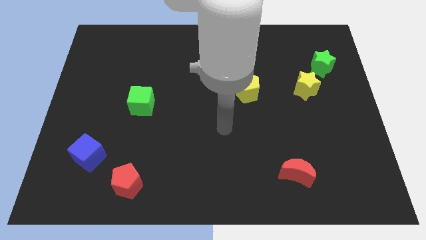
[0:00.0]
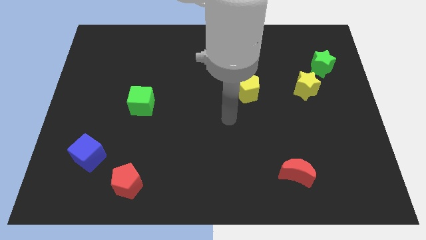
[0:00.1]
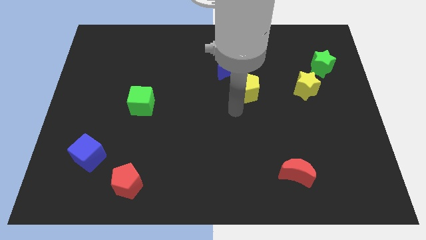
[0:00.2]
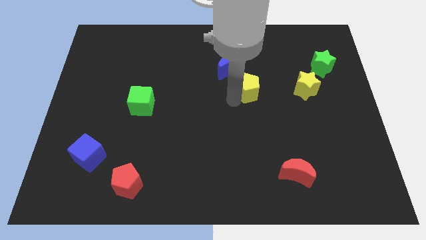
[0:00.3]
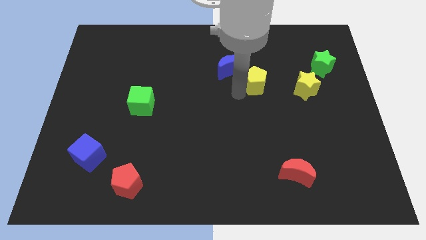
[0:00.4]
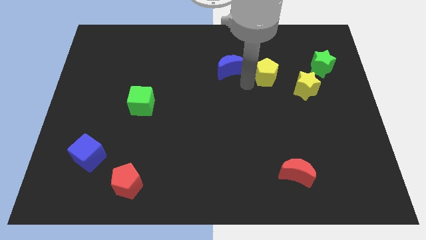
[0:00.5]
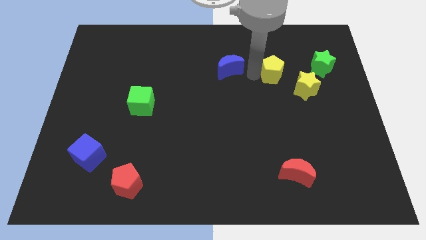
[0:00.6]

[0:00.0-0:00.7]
separate the blue moon from the yellow pentagon

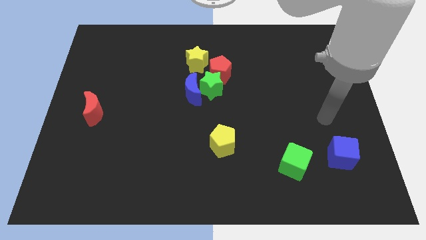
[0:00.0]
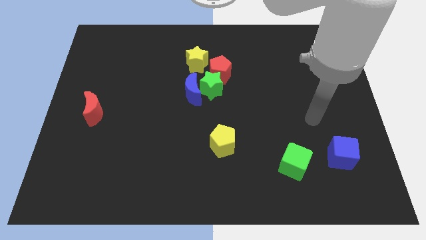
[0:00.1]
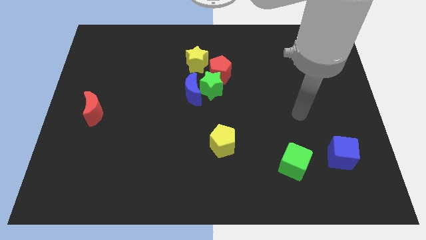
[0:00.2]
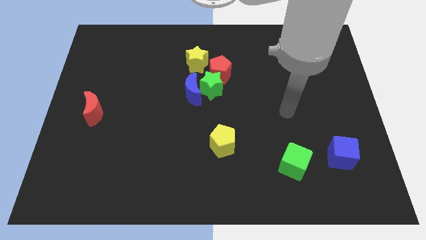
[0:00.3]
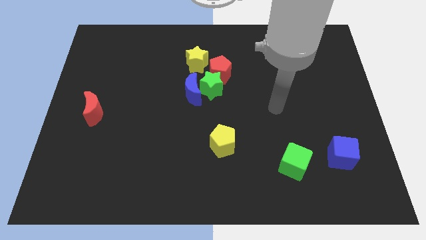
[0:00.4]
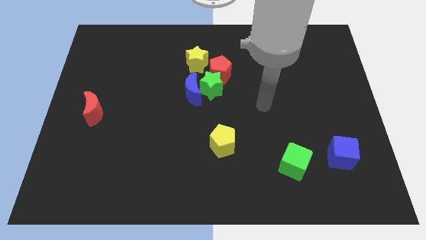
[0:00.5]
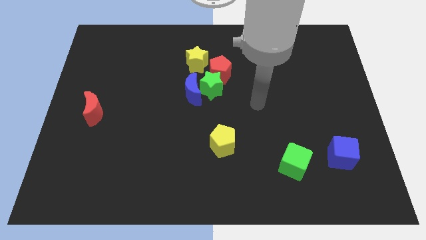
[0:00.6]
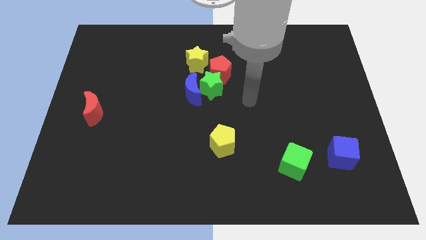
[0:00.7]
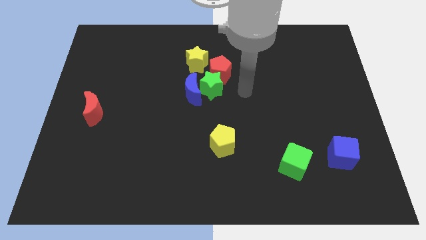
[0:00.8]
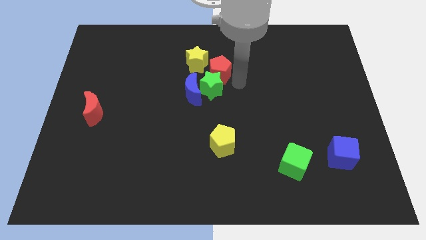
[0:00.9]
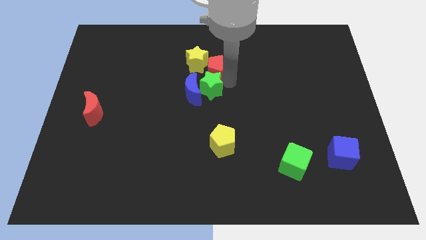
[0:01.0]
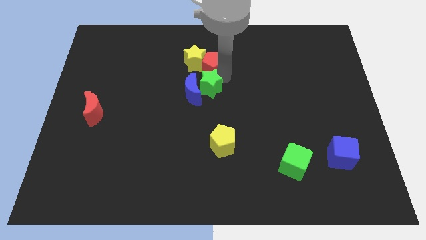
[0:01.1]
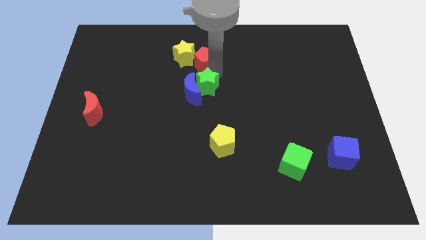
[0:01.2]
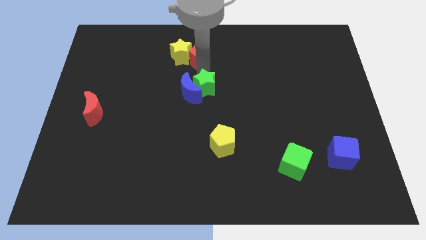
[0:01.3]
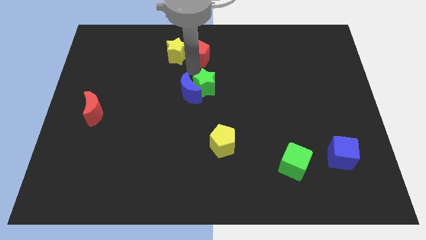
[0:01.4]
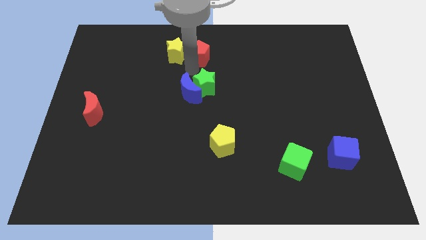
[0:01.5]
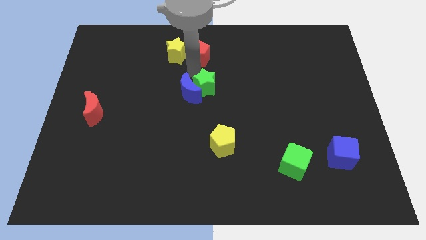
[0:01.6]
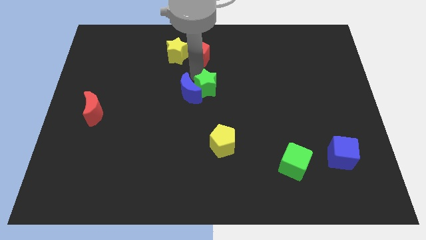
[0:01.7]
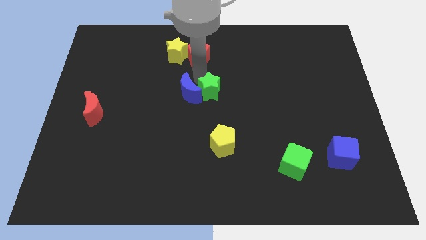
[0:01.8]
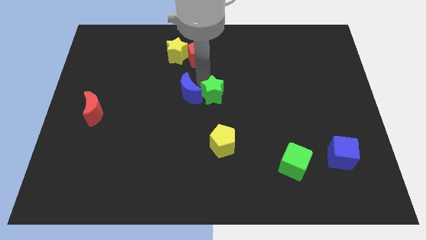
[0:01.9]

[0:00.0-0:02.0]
separate the green star from the clump

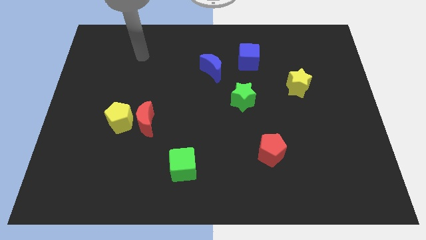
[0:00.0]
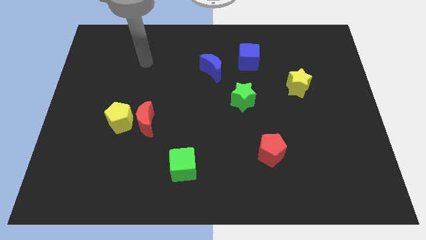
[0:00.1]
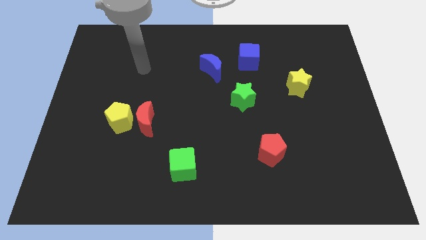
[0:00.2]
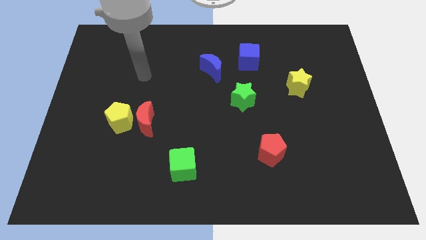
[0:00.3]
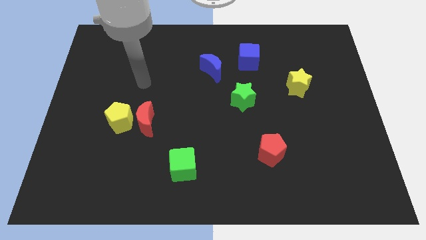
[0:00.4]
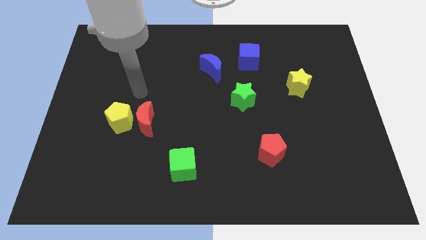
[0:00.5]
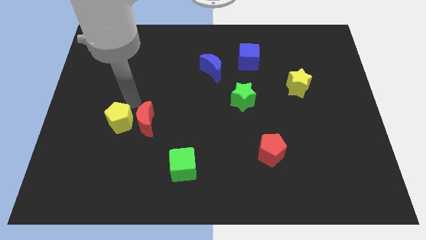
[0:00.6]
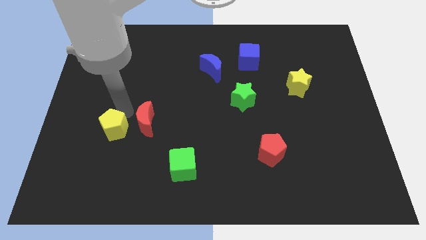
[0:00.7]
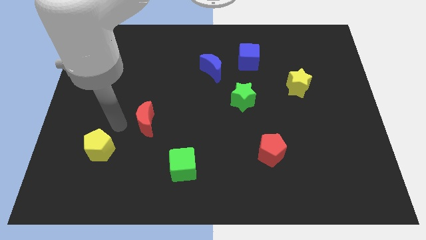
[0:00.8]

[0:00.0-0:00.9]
separate the red moon from the yellow pentagon

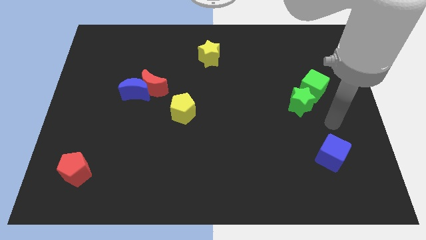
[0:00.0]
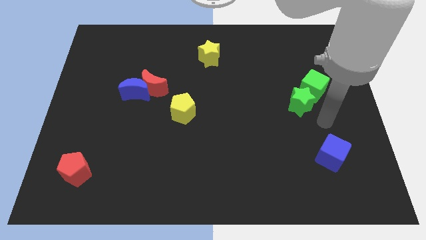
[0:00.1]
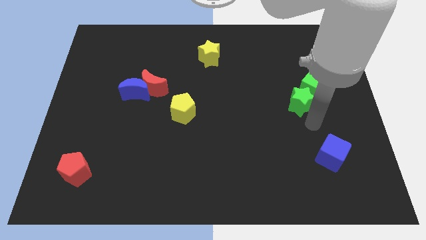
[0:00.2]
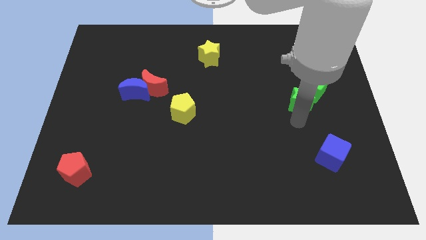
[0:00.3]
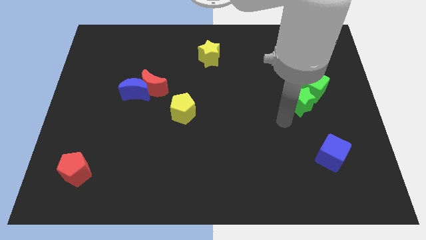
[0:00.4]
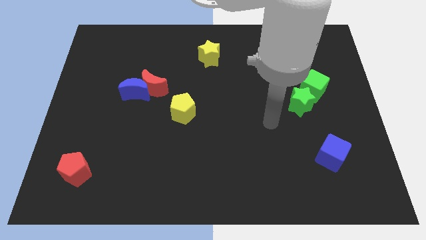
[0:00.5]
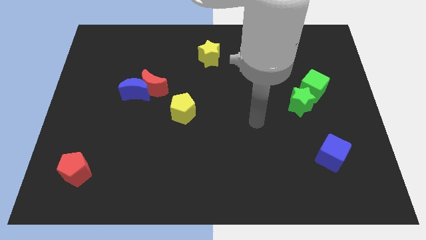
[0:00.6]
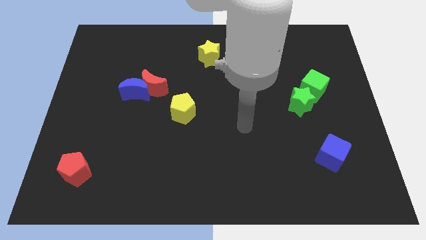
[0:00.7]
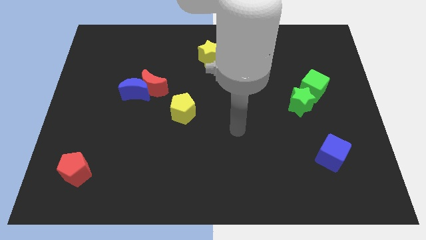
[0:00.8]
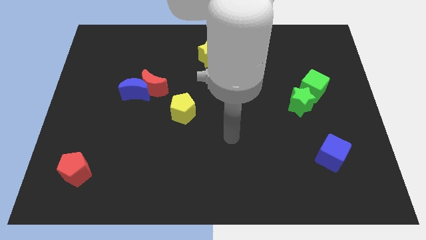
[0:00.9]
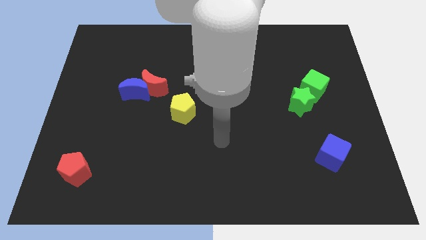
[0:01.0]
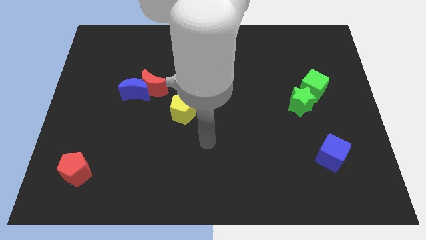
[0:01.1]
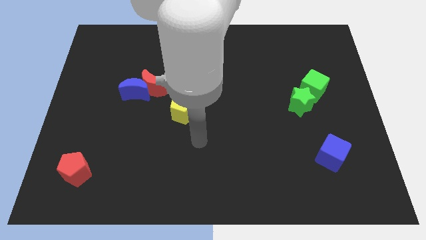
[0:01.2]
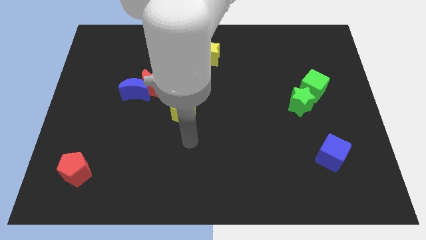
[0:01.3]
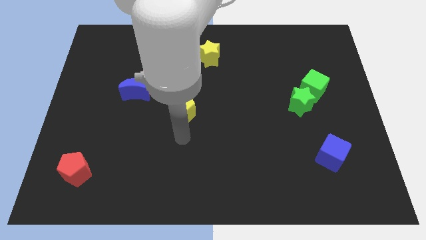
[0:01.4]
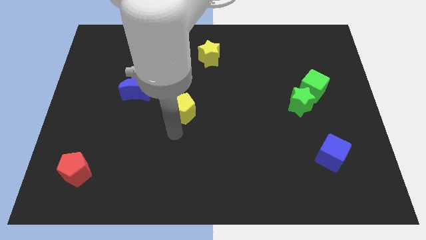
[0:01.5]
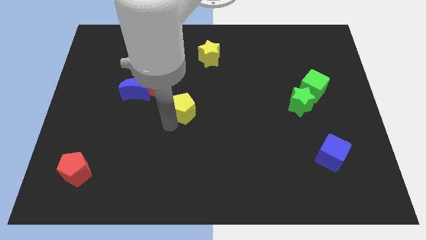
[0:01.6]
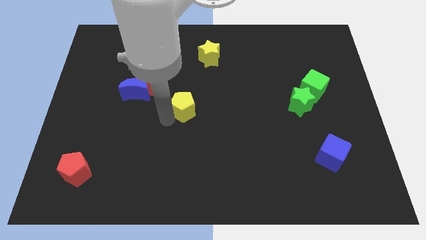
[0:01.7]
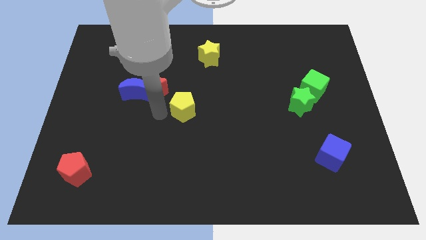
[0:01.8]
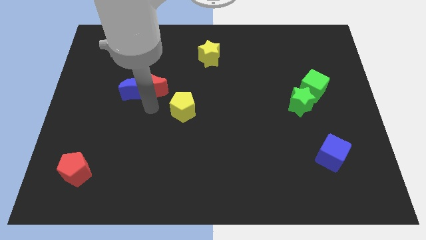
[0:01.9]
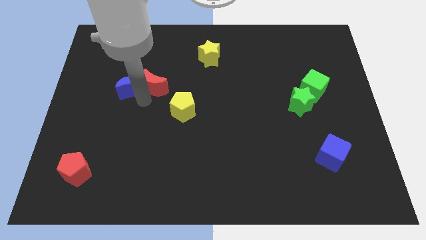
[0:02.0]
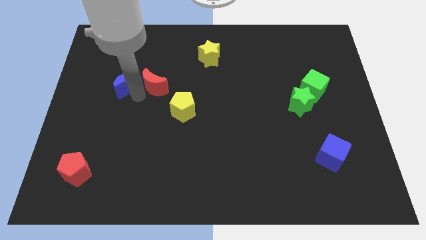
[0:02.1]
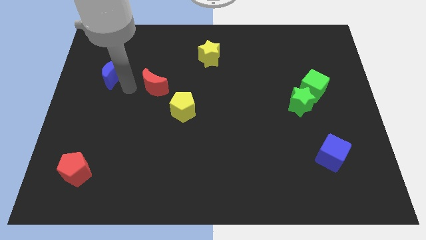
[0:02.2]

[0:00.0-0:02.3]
move the red moon away from the blue moon

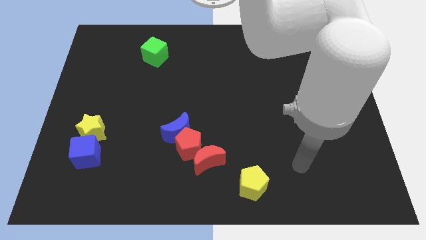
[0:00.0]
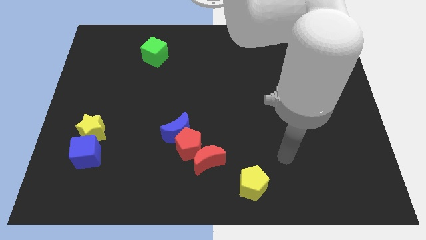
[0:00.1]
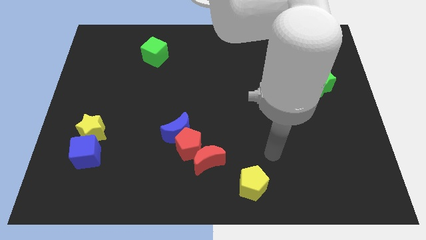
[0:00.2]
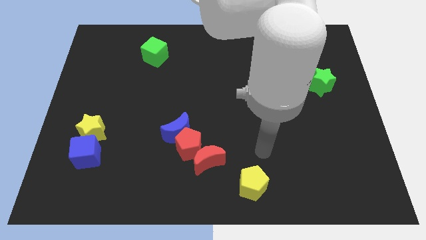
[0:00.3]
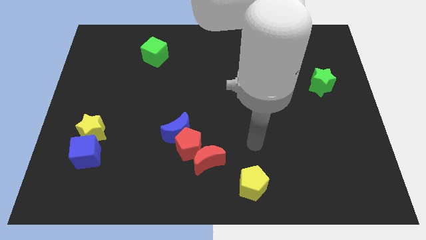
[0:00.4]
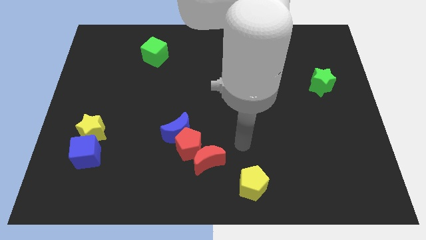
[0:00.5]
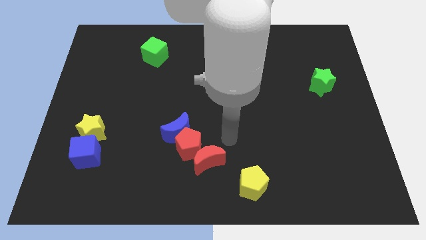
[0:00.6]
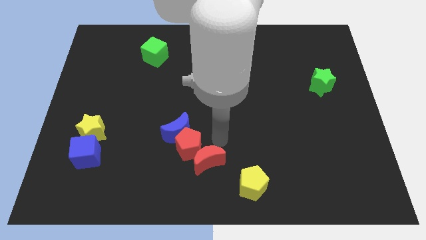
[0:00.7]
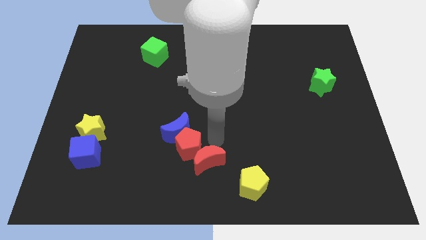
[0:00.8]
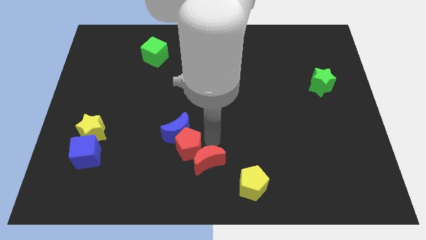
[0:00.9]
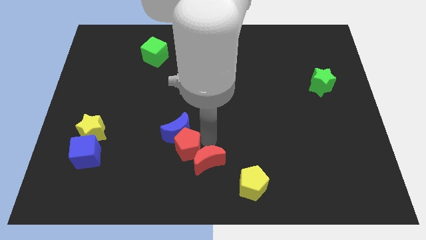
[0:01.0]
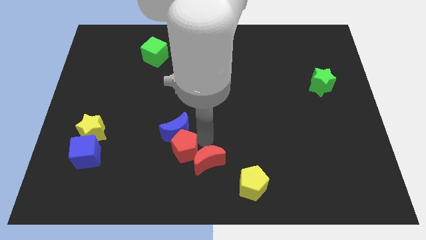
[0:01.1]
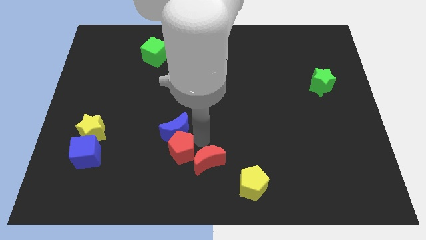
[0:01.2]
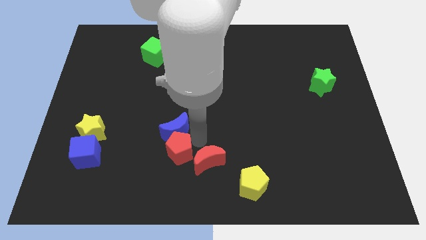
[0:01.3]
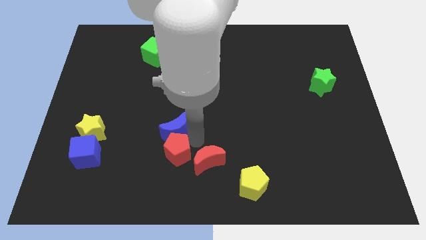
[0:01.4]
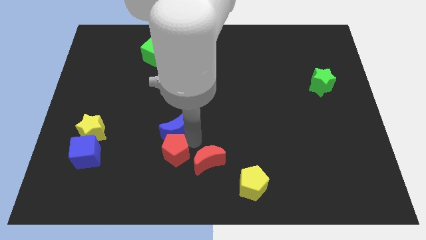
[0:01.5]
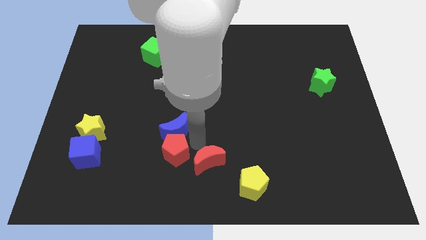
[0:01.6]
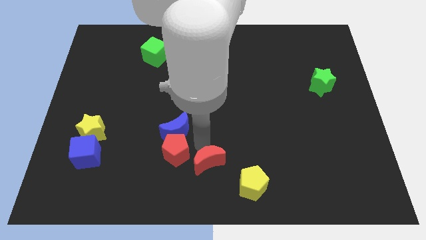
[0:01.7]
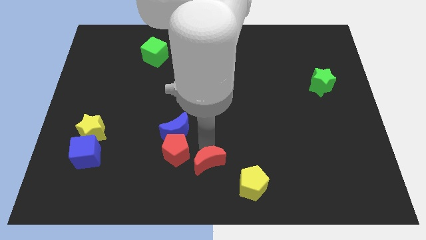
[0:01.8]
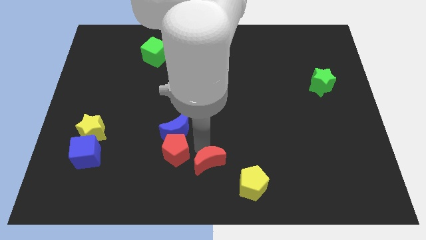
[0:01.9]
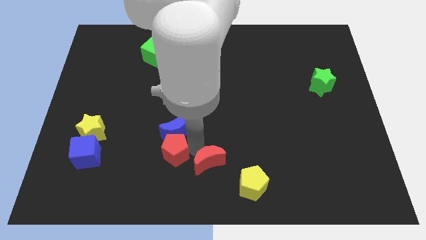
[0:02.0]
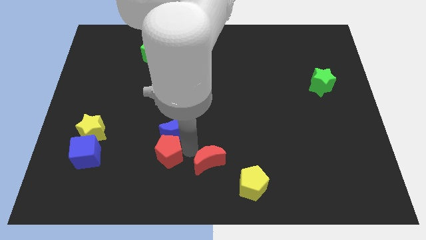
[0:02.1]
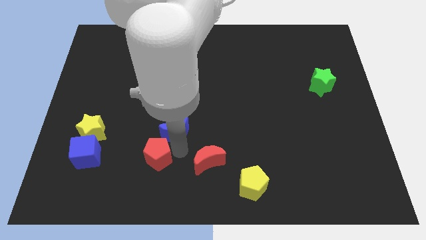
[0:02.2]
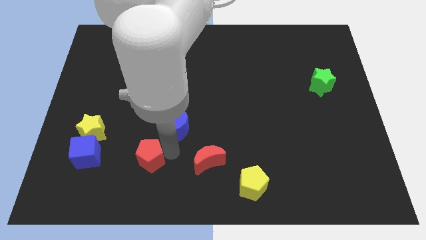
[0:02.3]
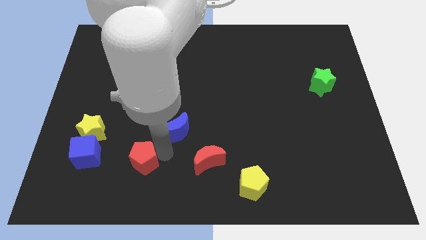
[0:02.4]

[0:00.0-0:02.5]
pull the red pentagon apart from the blue moon and red moon

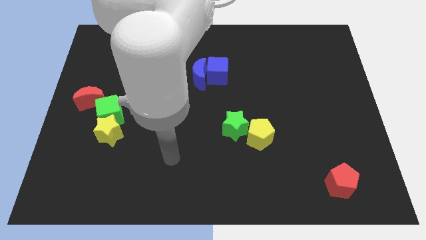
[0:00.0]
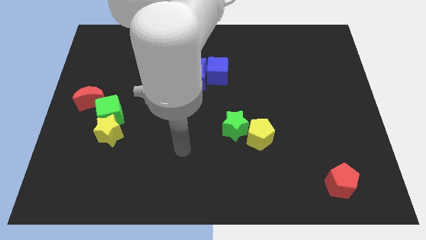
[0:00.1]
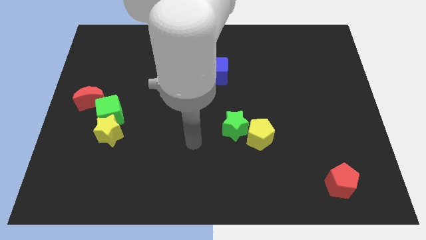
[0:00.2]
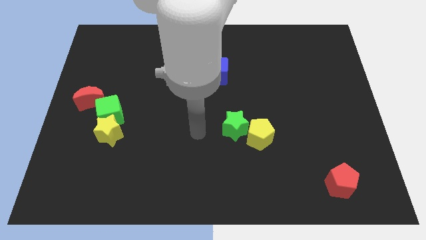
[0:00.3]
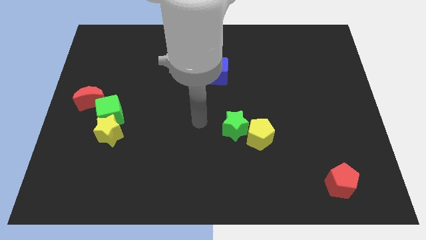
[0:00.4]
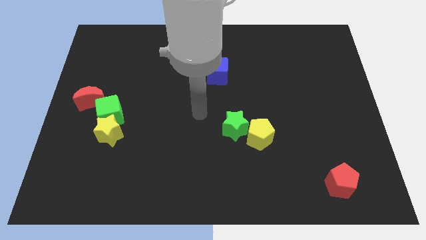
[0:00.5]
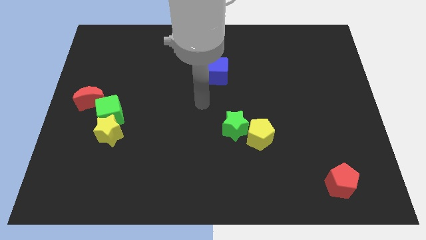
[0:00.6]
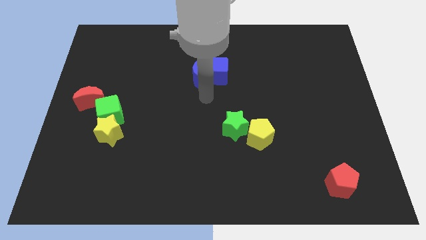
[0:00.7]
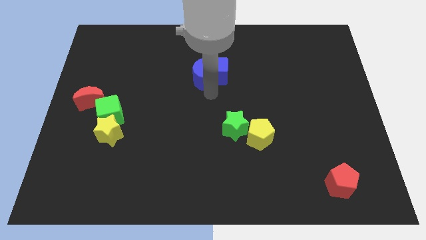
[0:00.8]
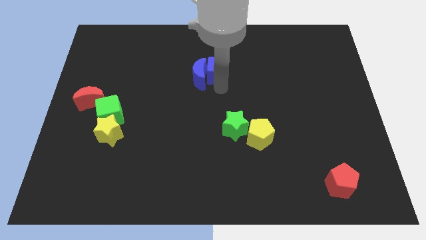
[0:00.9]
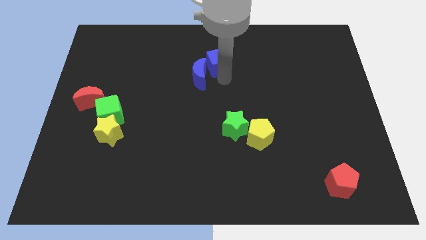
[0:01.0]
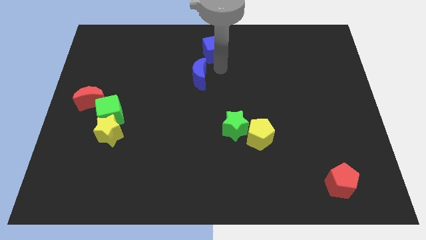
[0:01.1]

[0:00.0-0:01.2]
pull the blue moon apart from the blue cube
